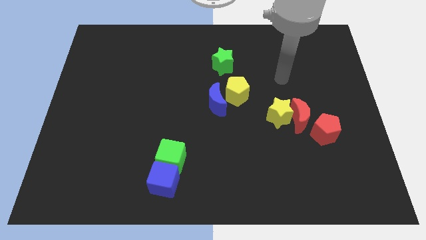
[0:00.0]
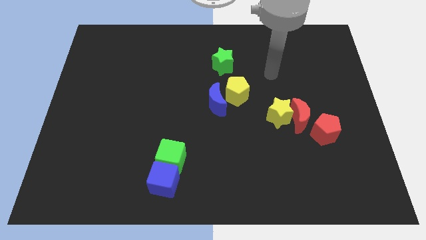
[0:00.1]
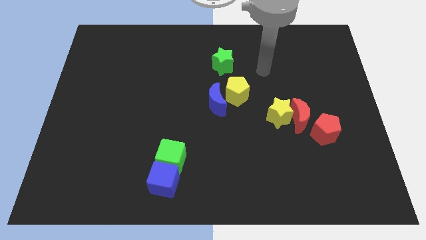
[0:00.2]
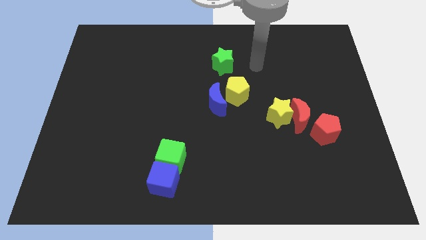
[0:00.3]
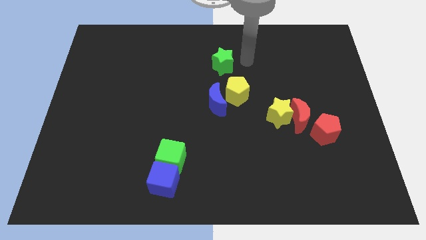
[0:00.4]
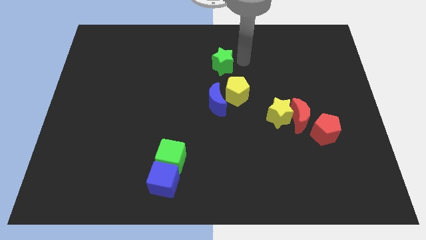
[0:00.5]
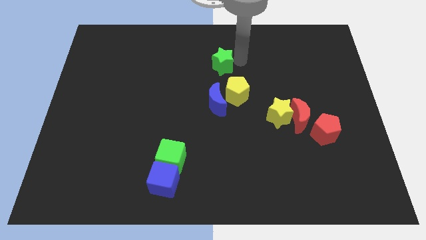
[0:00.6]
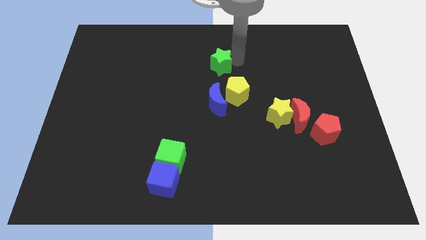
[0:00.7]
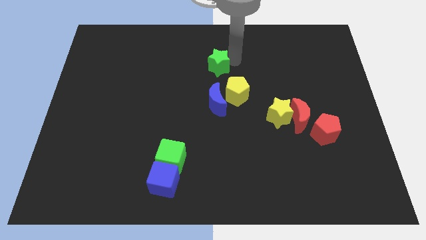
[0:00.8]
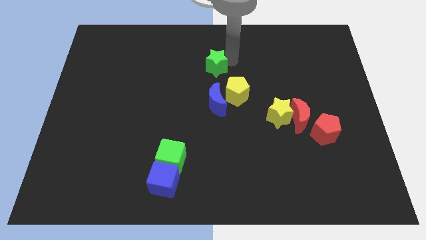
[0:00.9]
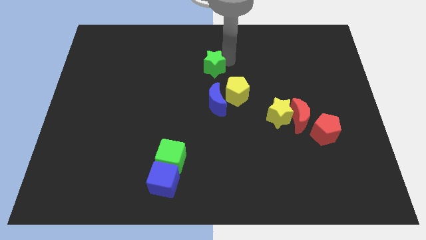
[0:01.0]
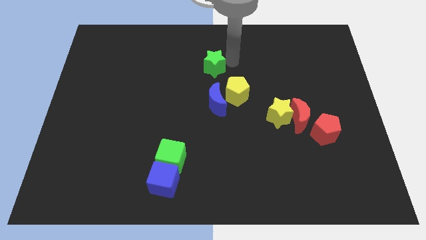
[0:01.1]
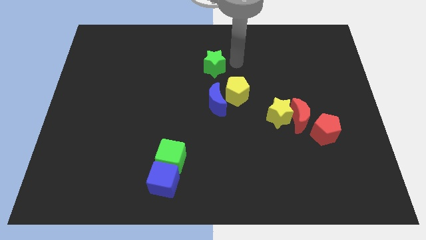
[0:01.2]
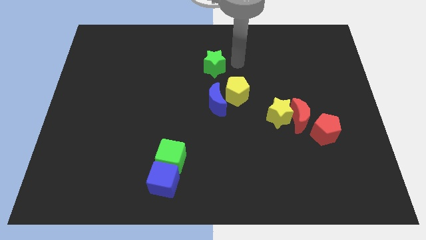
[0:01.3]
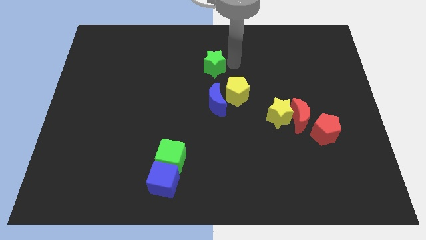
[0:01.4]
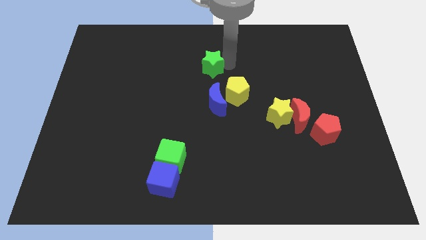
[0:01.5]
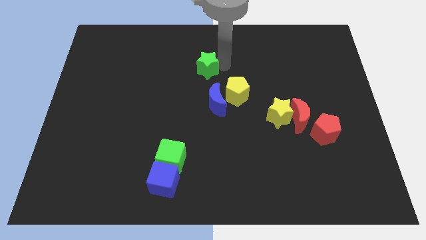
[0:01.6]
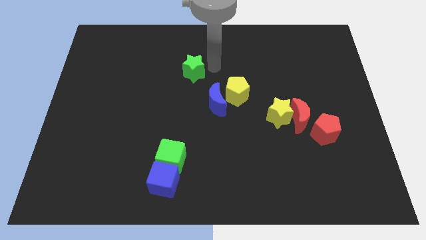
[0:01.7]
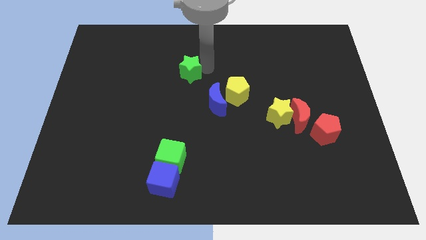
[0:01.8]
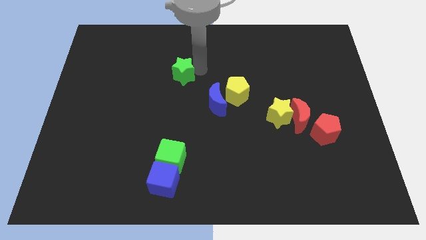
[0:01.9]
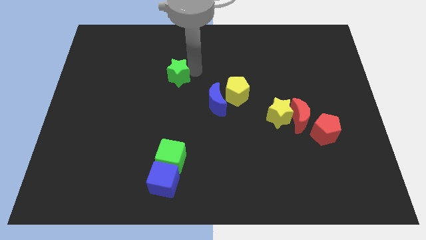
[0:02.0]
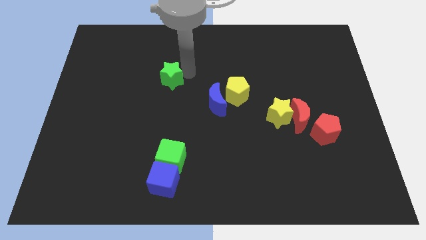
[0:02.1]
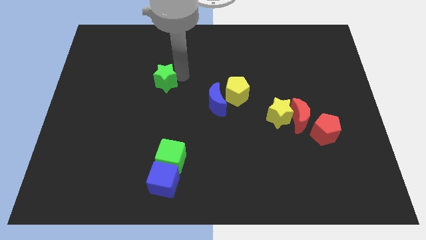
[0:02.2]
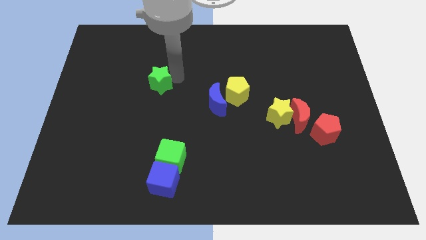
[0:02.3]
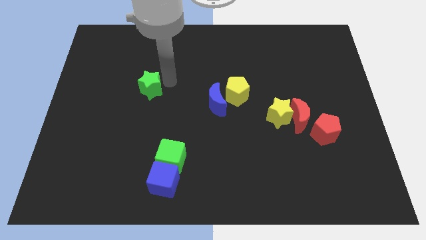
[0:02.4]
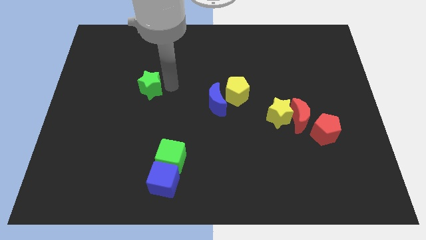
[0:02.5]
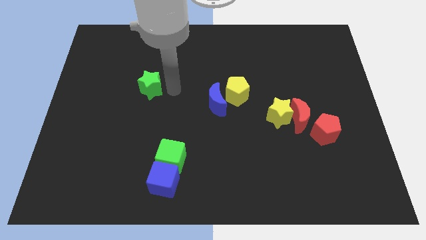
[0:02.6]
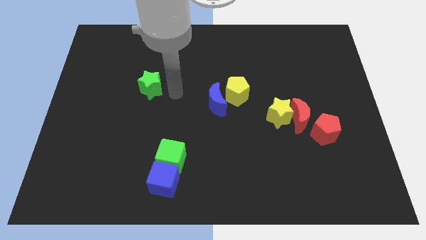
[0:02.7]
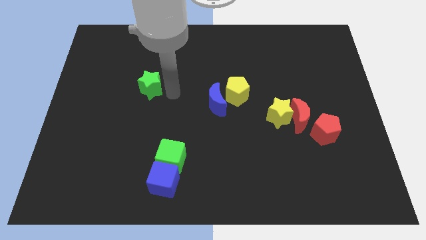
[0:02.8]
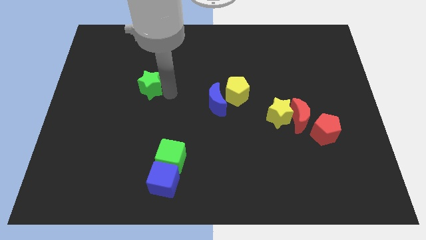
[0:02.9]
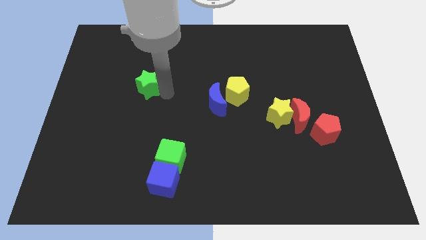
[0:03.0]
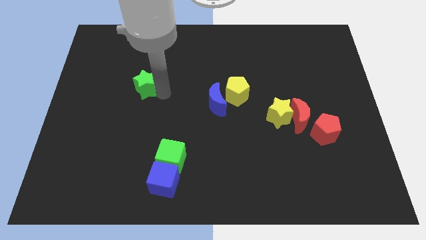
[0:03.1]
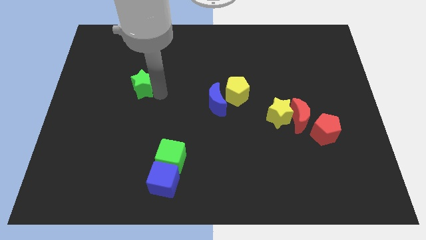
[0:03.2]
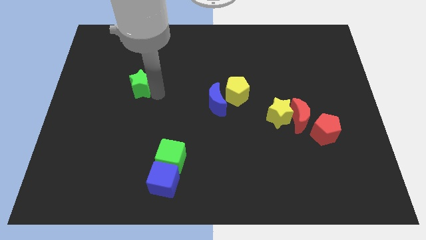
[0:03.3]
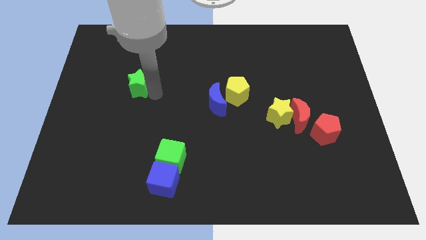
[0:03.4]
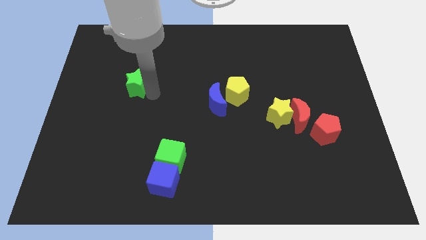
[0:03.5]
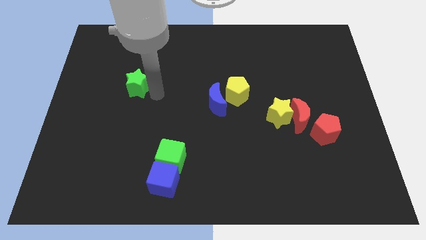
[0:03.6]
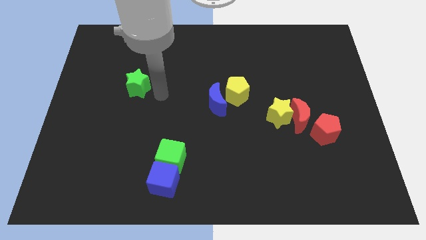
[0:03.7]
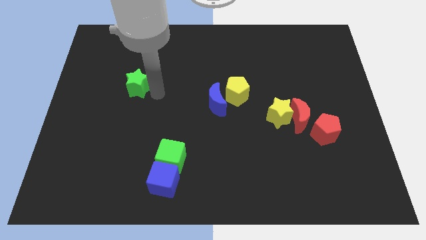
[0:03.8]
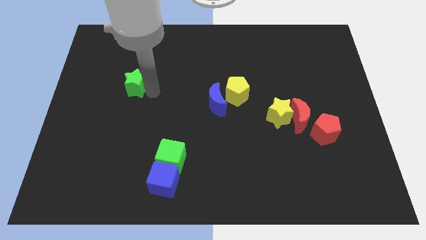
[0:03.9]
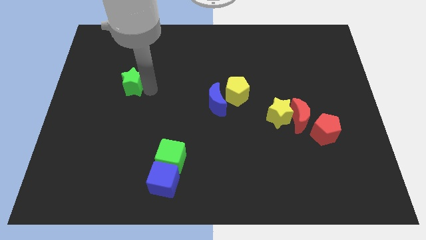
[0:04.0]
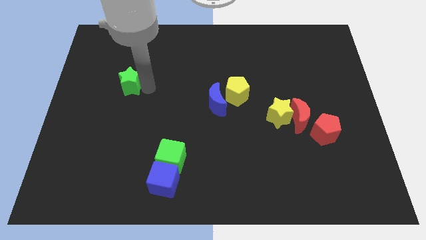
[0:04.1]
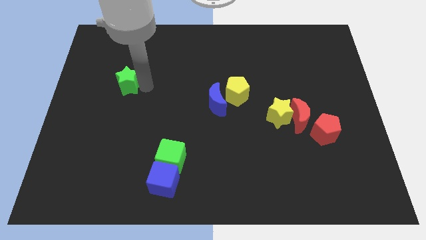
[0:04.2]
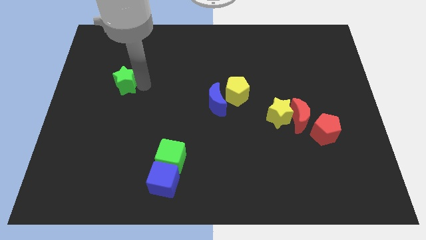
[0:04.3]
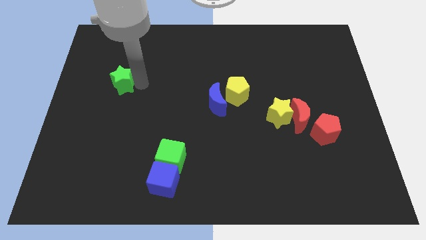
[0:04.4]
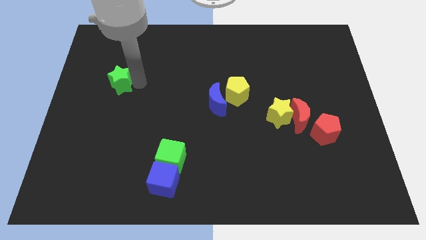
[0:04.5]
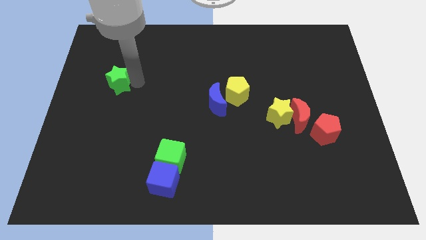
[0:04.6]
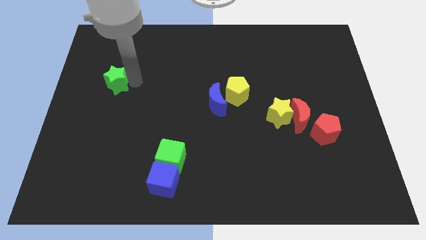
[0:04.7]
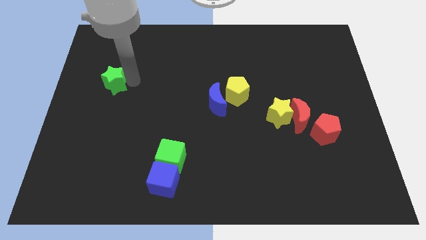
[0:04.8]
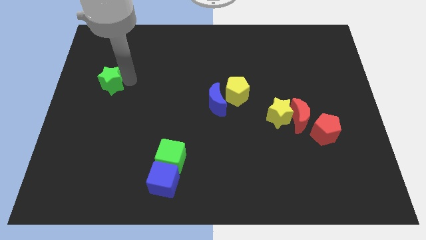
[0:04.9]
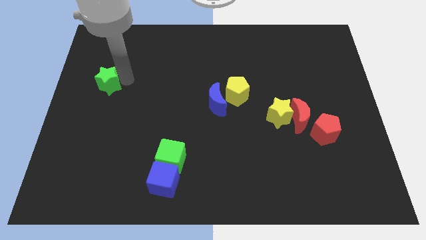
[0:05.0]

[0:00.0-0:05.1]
move the green star to the left side

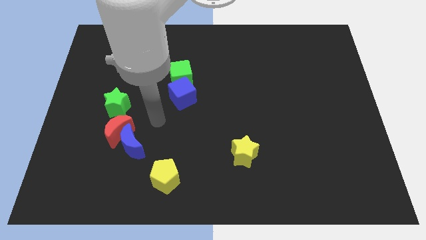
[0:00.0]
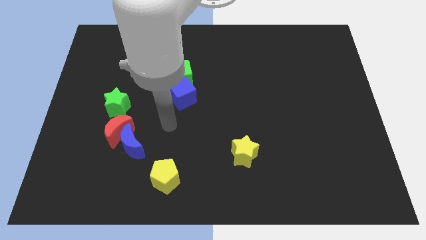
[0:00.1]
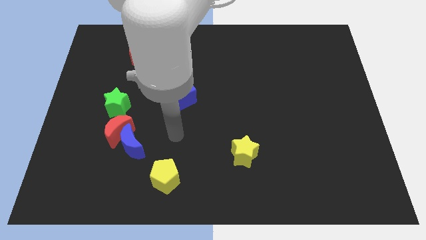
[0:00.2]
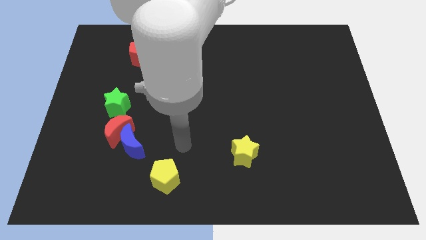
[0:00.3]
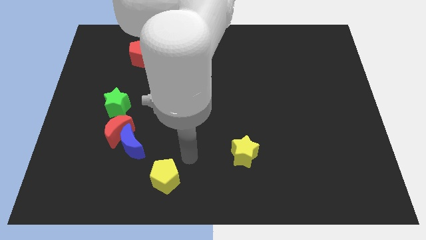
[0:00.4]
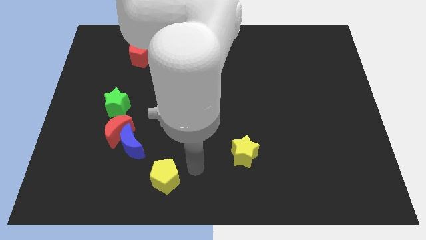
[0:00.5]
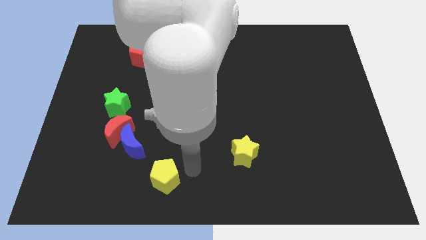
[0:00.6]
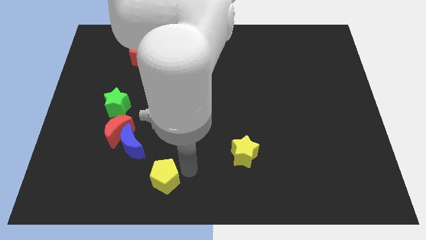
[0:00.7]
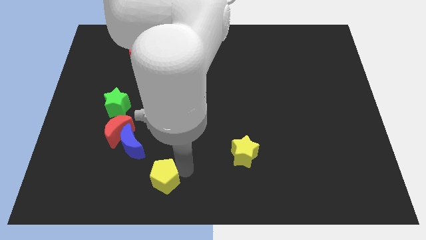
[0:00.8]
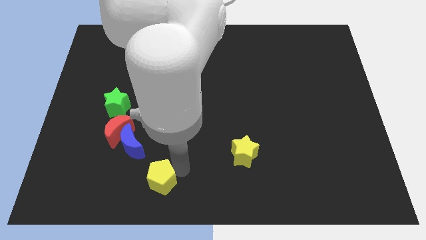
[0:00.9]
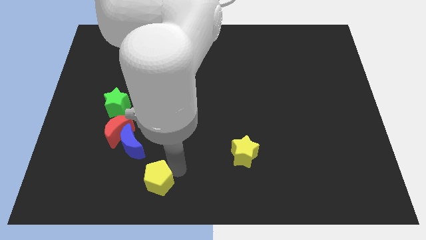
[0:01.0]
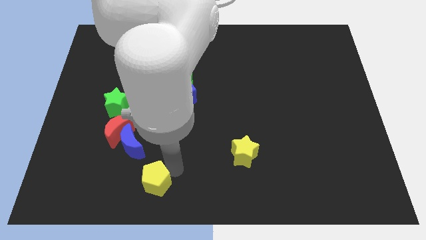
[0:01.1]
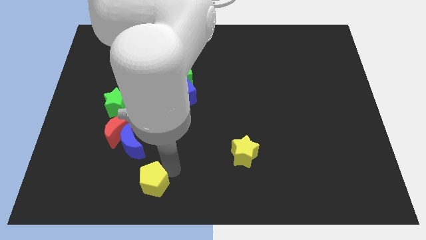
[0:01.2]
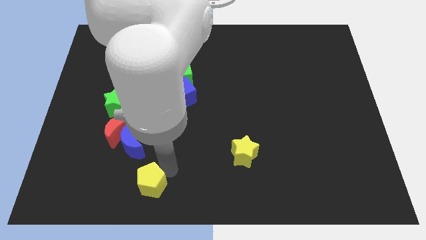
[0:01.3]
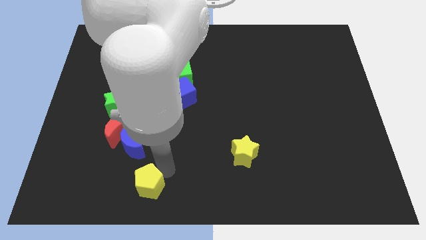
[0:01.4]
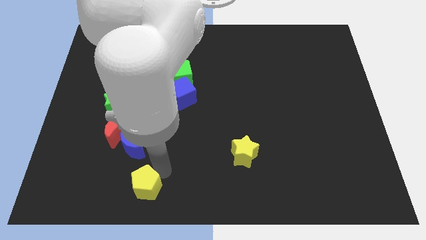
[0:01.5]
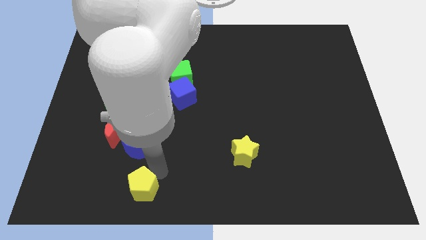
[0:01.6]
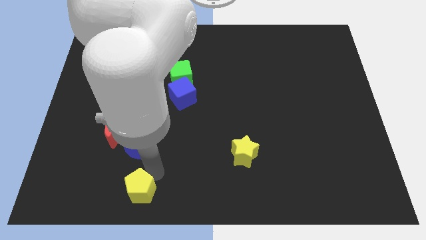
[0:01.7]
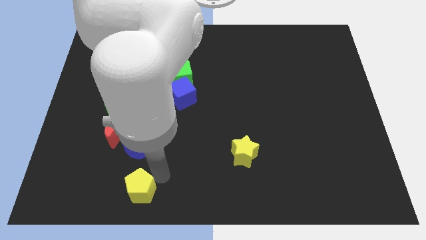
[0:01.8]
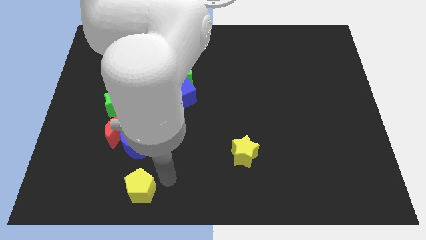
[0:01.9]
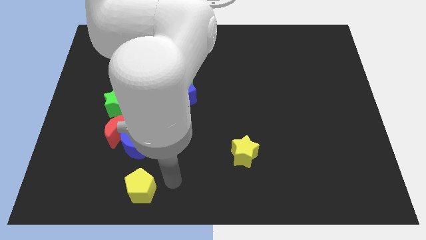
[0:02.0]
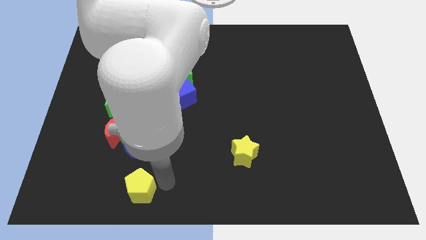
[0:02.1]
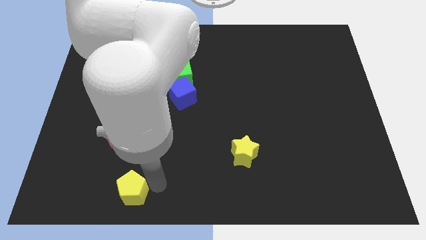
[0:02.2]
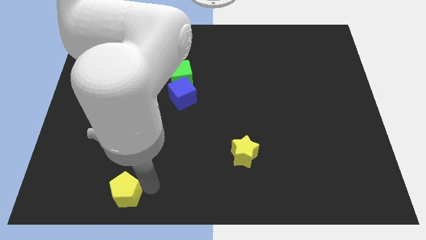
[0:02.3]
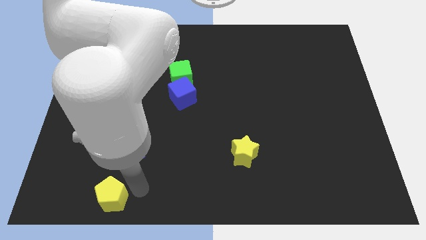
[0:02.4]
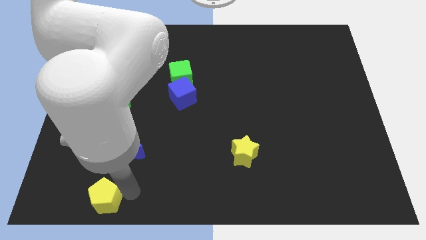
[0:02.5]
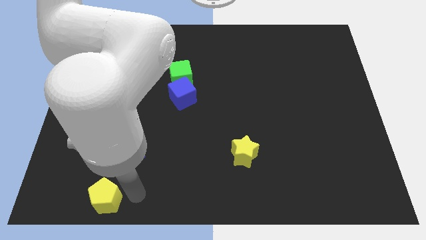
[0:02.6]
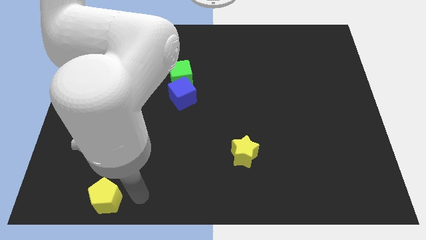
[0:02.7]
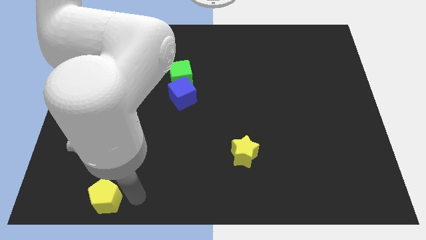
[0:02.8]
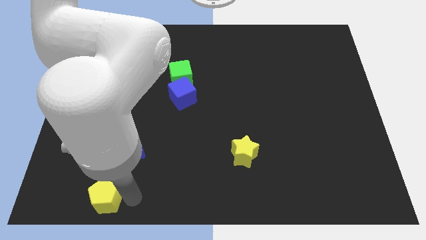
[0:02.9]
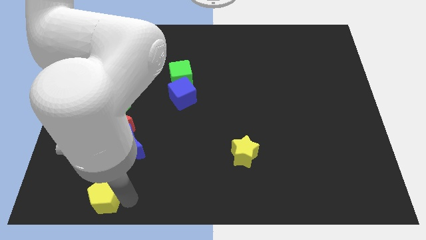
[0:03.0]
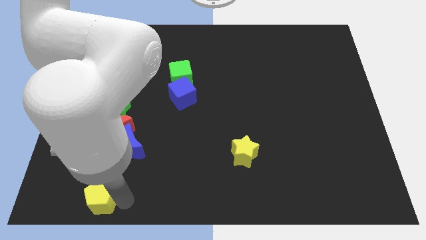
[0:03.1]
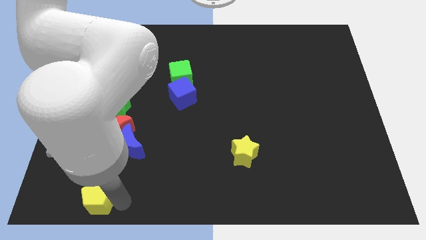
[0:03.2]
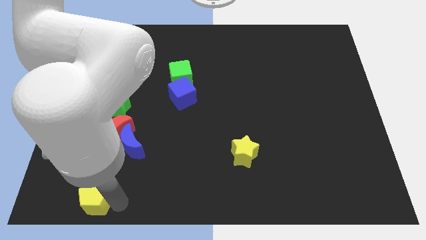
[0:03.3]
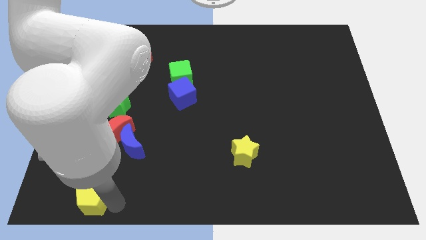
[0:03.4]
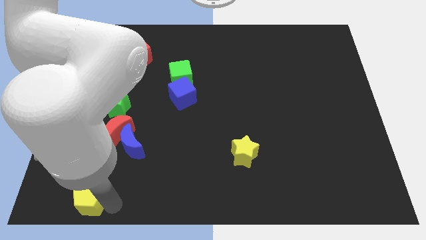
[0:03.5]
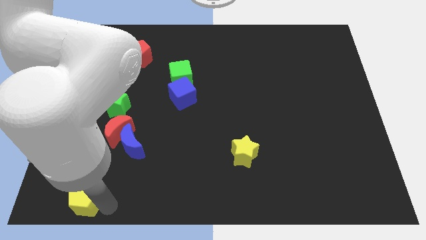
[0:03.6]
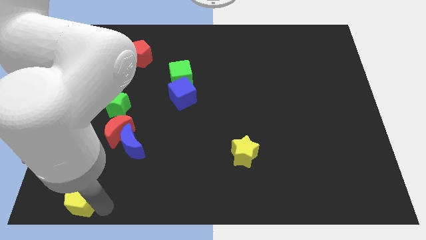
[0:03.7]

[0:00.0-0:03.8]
push the yellow pentagon to the bottom left
